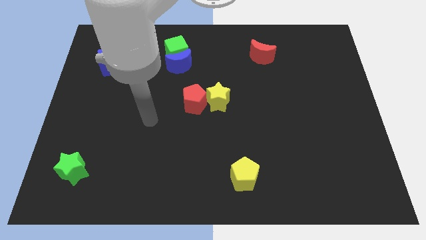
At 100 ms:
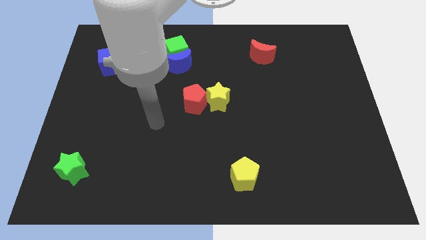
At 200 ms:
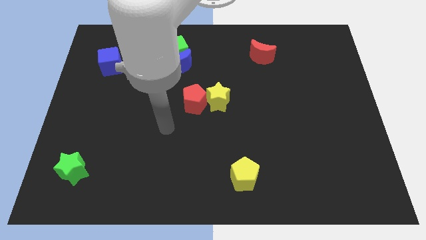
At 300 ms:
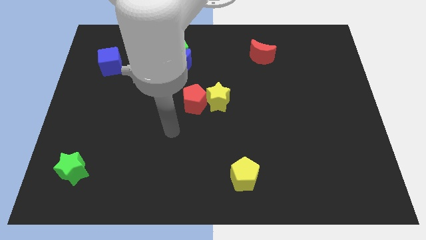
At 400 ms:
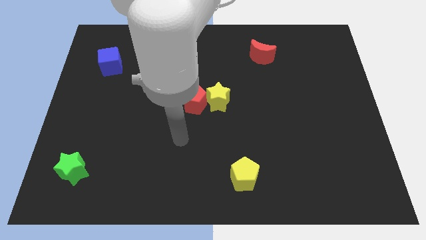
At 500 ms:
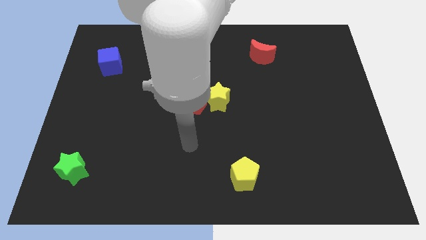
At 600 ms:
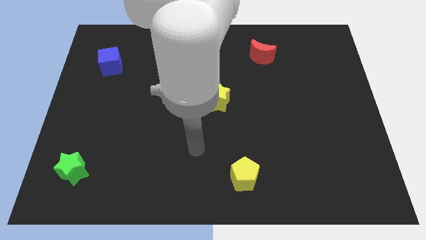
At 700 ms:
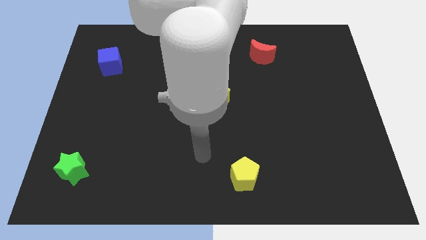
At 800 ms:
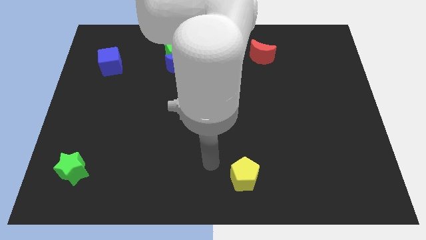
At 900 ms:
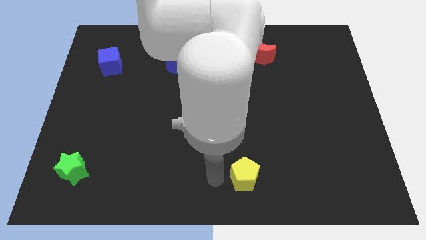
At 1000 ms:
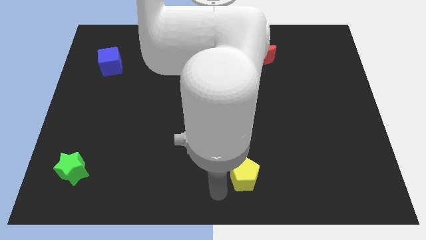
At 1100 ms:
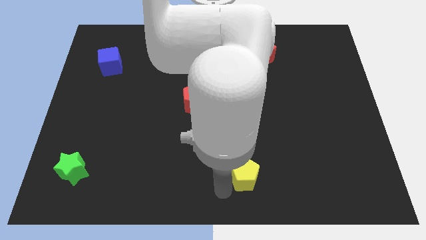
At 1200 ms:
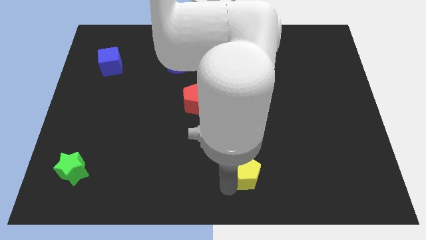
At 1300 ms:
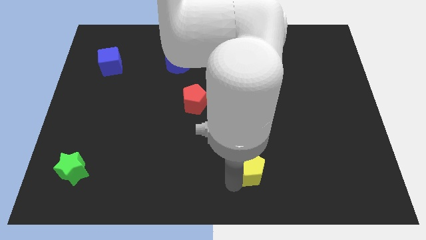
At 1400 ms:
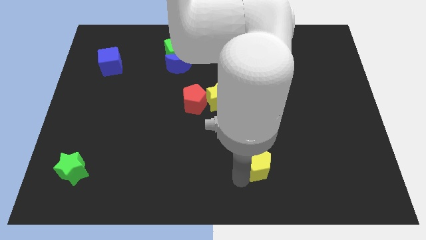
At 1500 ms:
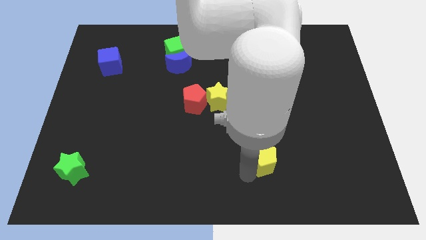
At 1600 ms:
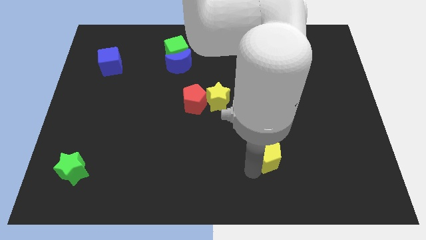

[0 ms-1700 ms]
slightly move the yellow pentagon diagonally upwards and to the right

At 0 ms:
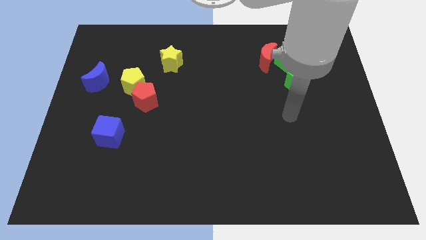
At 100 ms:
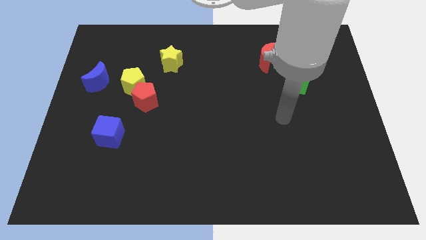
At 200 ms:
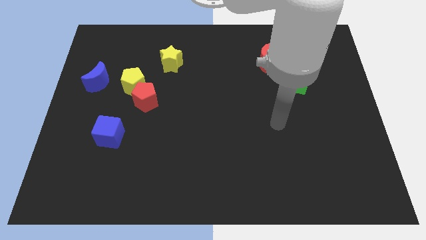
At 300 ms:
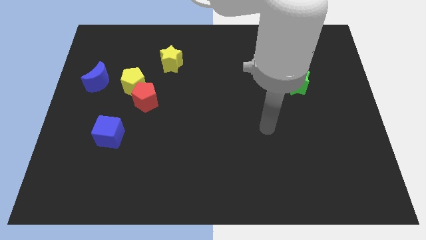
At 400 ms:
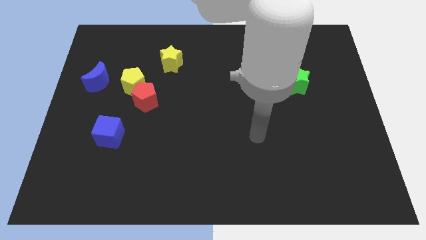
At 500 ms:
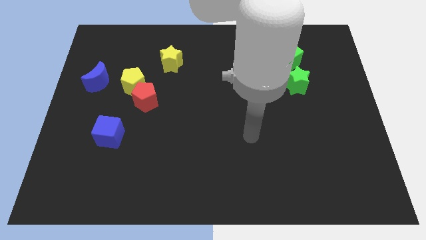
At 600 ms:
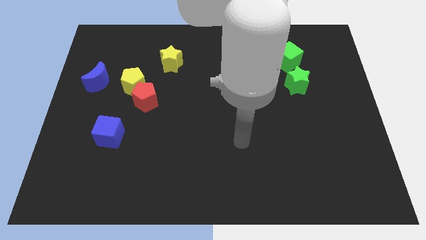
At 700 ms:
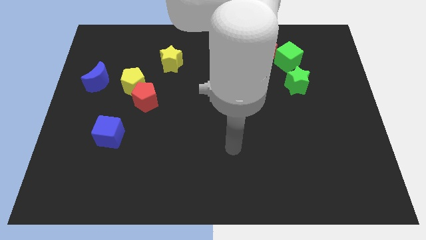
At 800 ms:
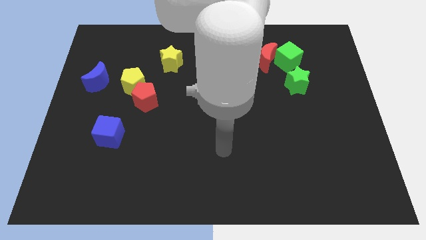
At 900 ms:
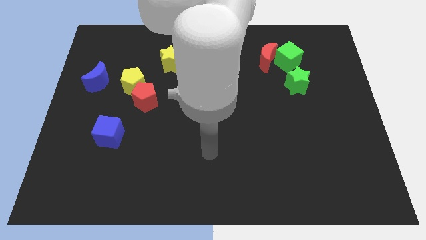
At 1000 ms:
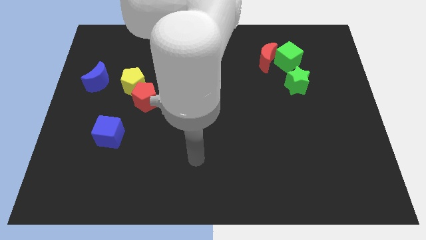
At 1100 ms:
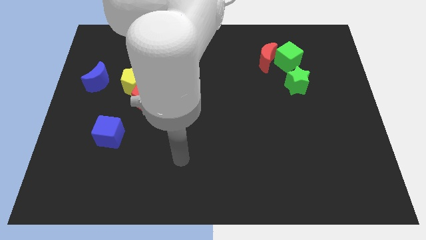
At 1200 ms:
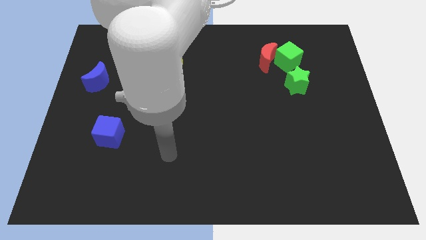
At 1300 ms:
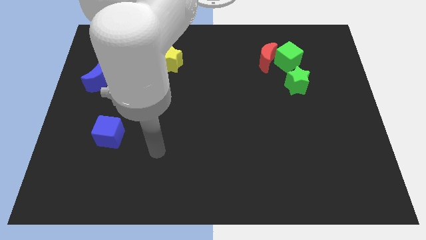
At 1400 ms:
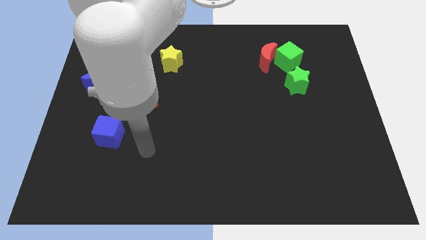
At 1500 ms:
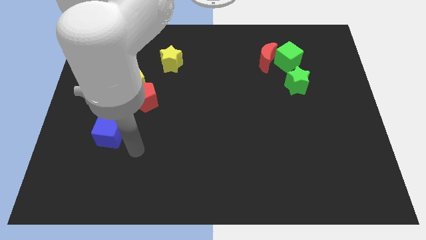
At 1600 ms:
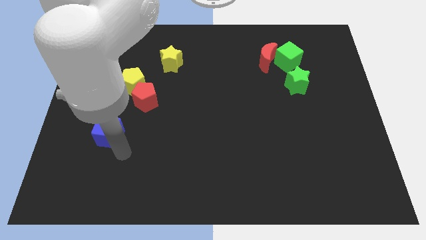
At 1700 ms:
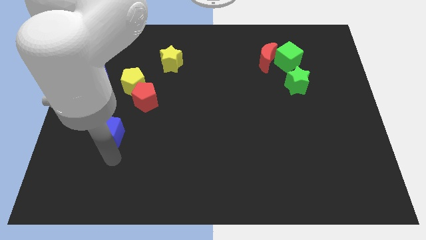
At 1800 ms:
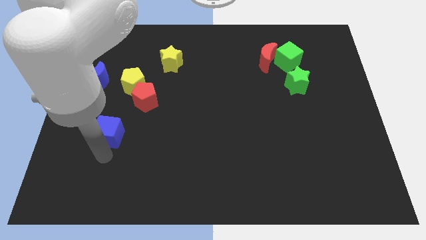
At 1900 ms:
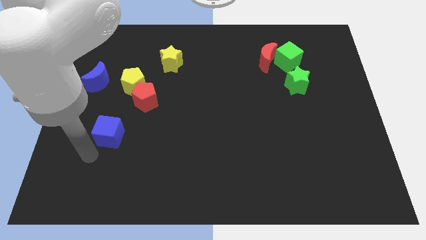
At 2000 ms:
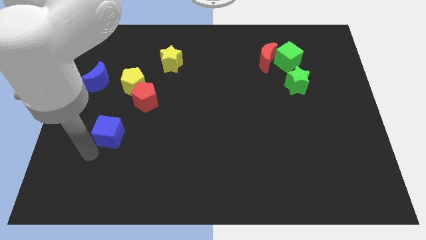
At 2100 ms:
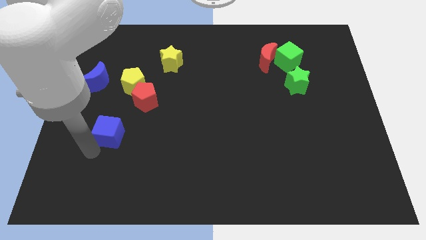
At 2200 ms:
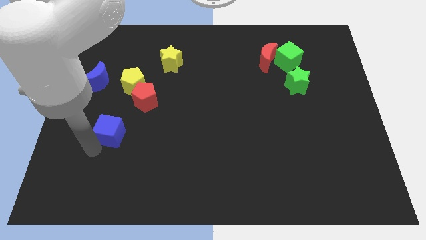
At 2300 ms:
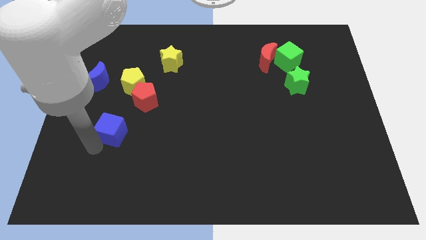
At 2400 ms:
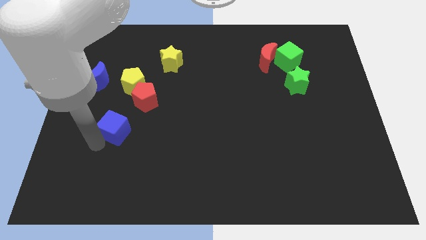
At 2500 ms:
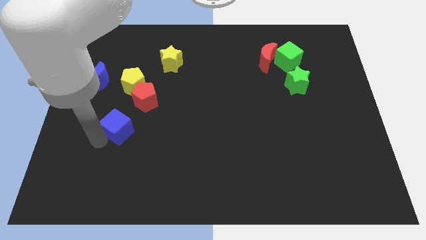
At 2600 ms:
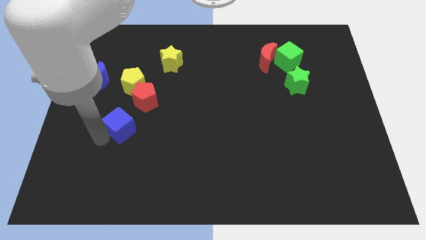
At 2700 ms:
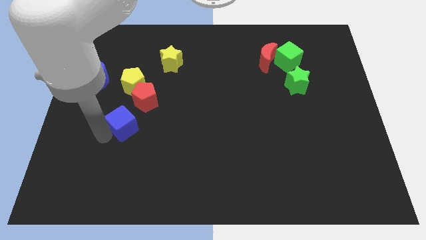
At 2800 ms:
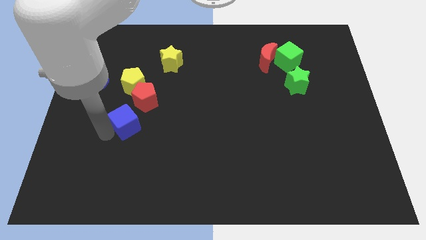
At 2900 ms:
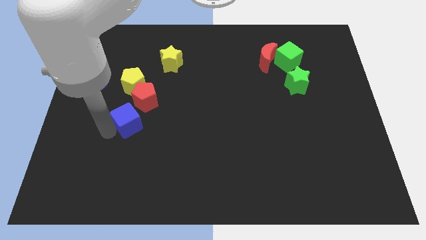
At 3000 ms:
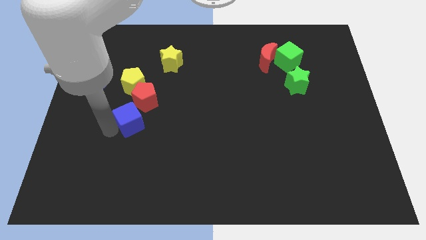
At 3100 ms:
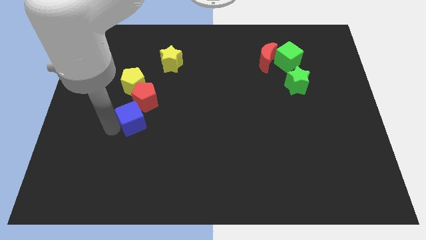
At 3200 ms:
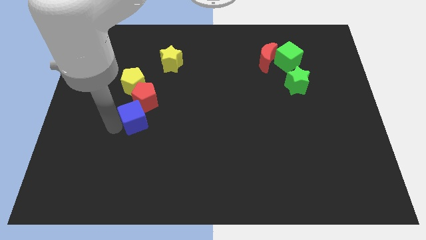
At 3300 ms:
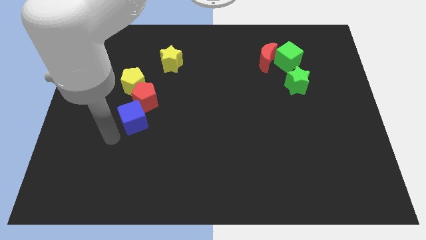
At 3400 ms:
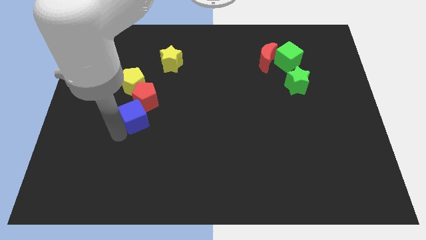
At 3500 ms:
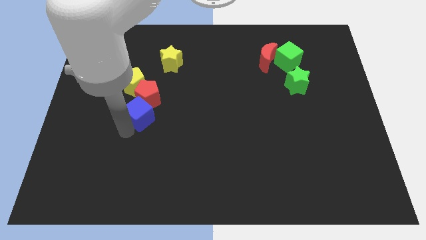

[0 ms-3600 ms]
slightly slide the blue cube up and then to the right

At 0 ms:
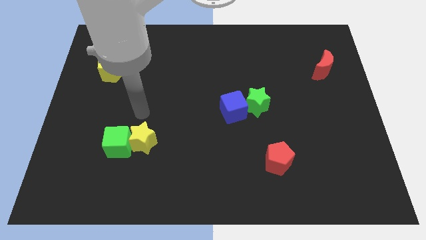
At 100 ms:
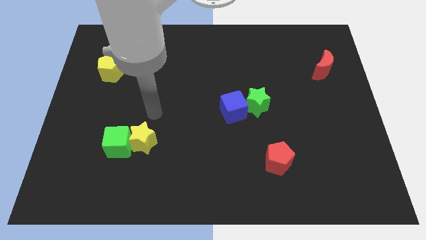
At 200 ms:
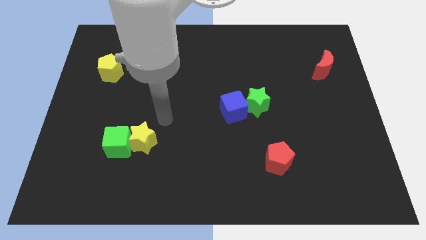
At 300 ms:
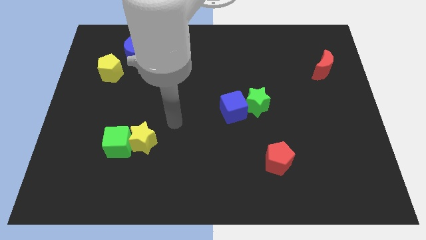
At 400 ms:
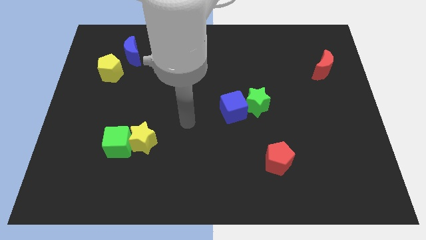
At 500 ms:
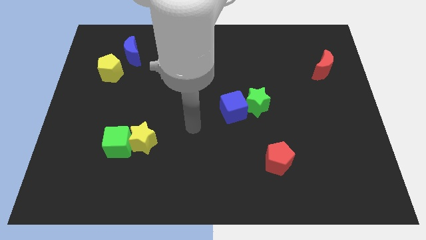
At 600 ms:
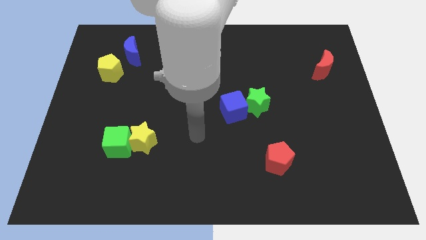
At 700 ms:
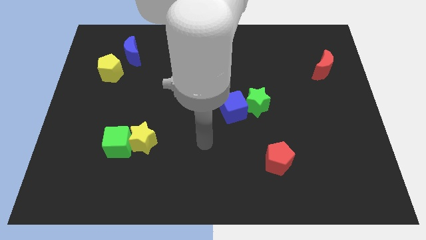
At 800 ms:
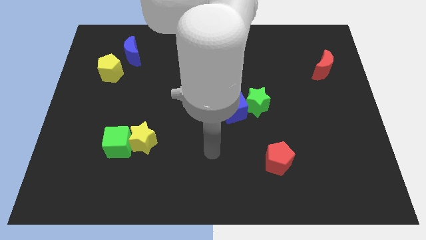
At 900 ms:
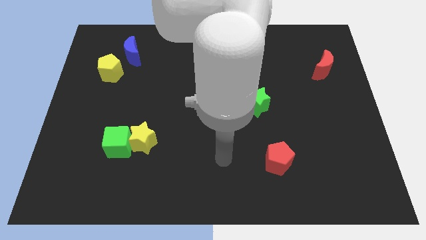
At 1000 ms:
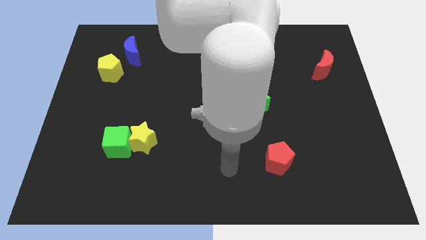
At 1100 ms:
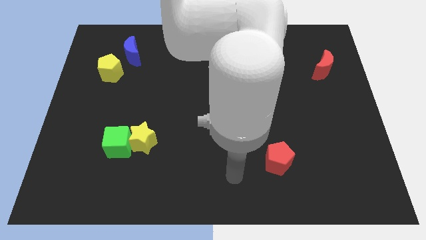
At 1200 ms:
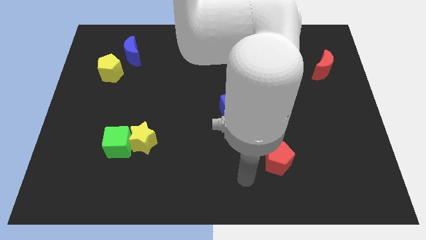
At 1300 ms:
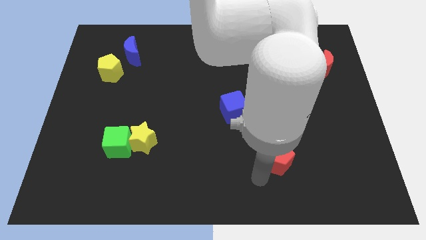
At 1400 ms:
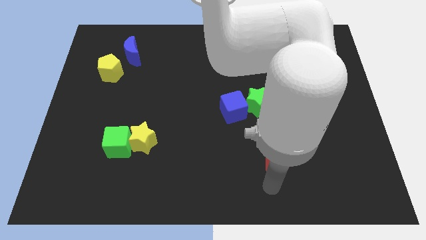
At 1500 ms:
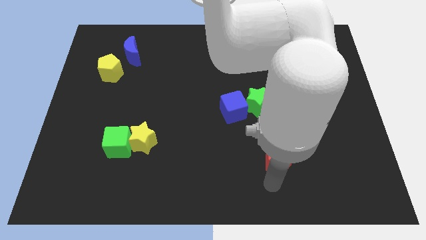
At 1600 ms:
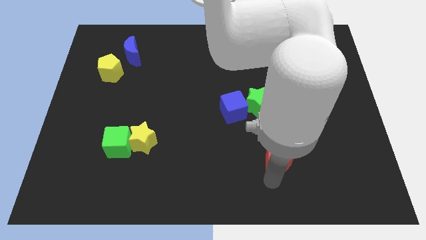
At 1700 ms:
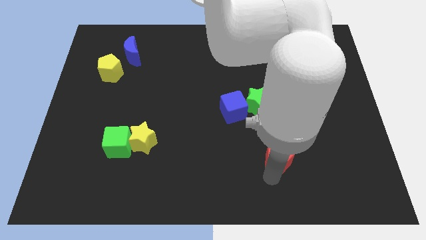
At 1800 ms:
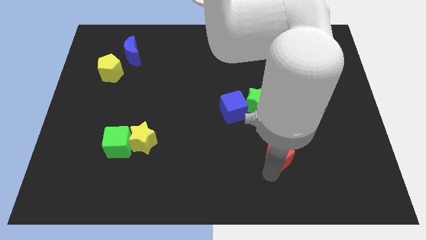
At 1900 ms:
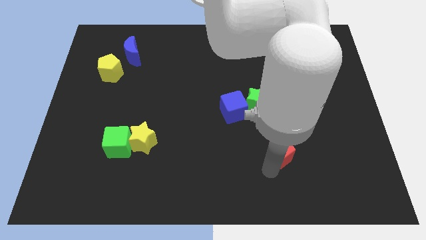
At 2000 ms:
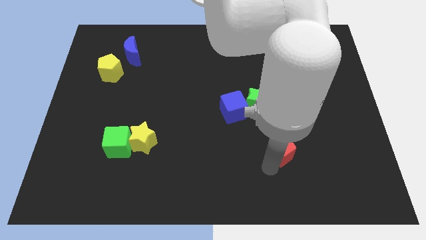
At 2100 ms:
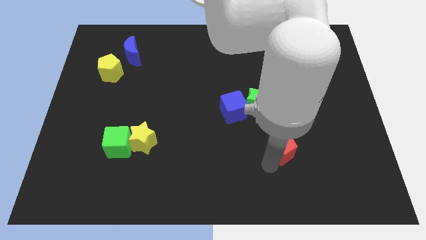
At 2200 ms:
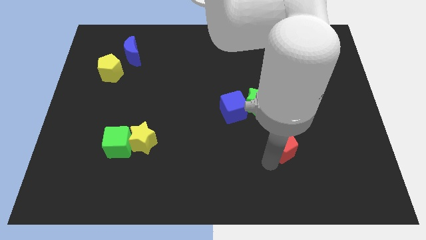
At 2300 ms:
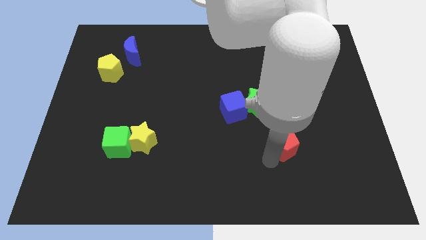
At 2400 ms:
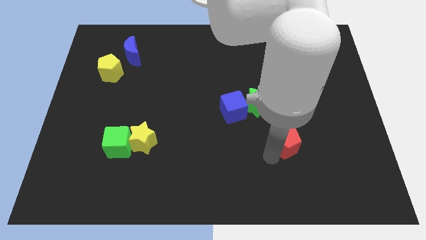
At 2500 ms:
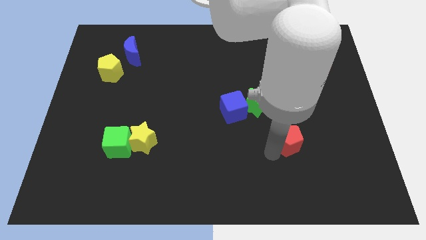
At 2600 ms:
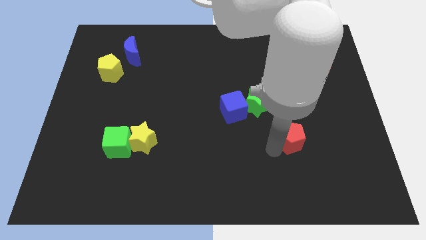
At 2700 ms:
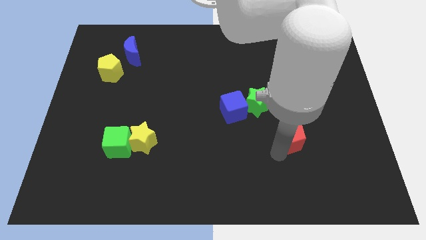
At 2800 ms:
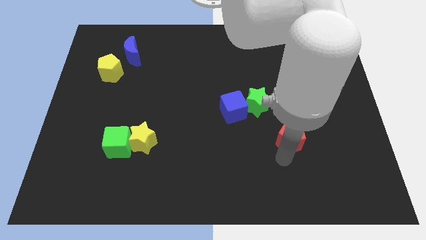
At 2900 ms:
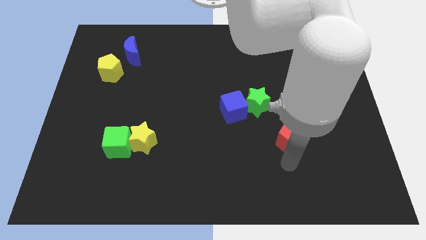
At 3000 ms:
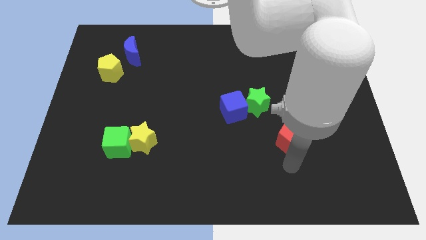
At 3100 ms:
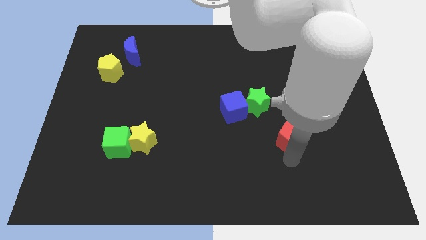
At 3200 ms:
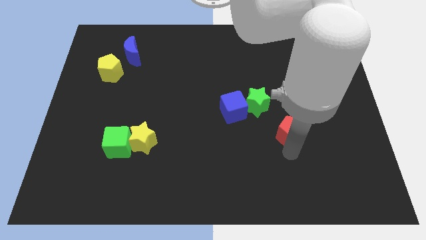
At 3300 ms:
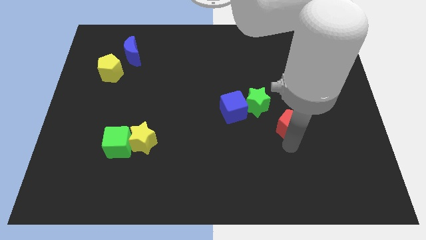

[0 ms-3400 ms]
slide the red pentagon a bit upwards
